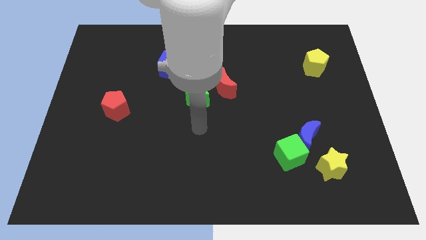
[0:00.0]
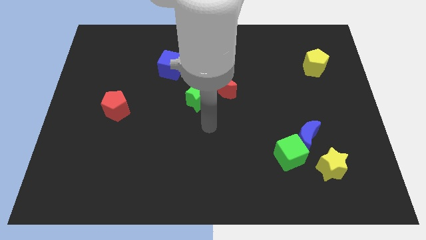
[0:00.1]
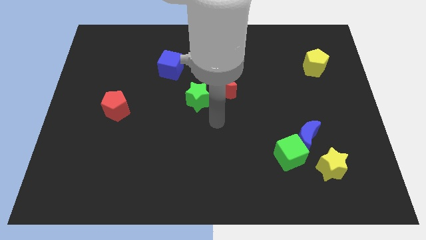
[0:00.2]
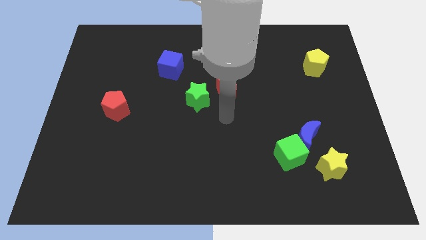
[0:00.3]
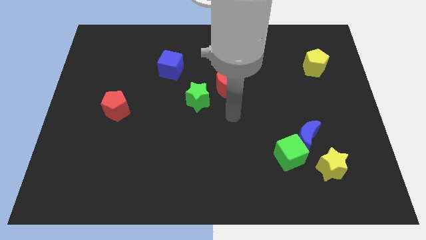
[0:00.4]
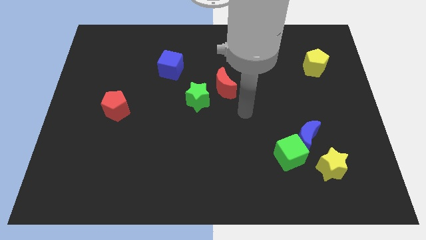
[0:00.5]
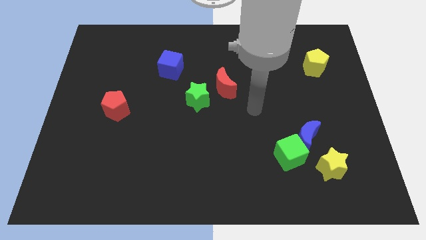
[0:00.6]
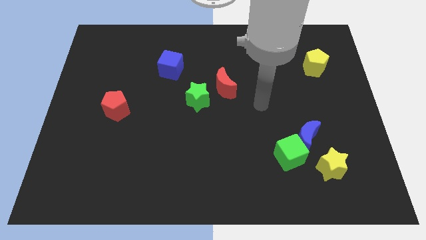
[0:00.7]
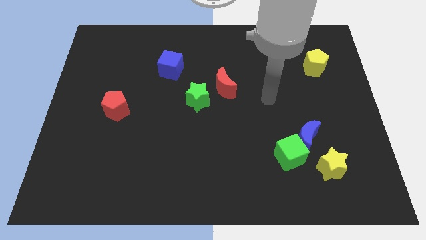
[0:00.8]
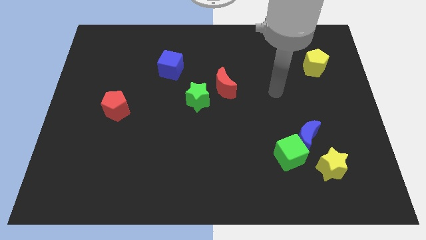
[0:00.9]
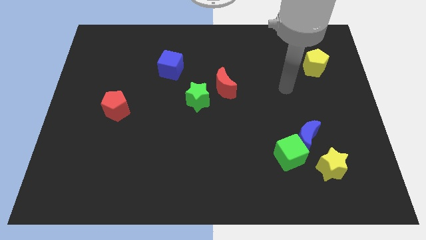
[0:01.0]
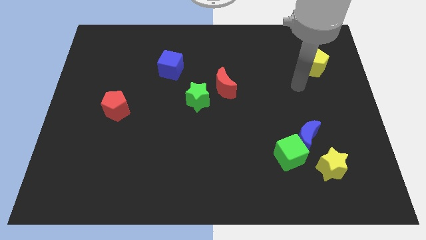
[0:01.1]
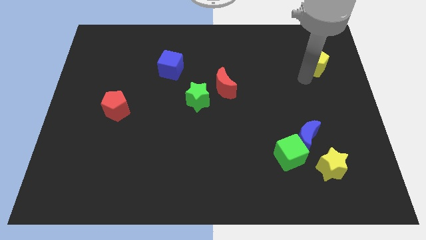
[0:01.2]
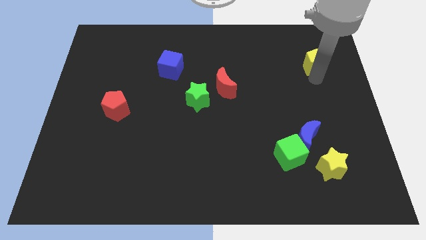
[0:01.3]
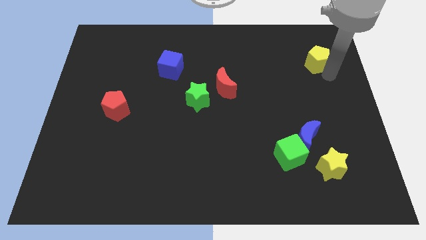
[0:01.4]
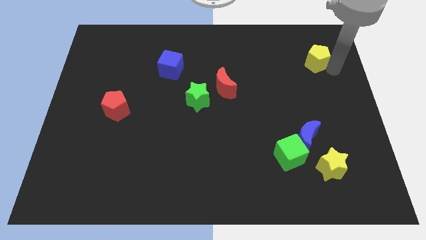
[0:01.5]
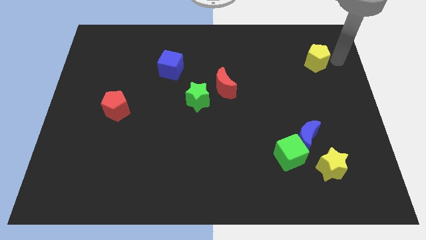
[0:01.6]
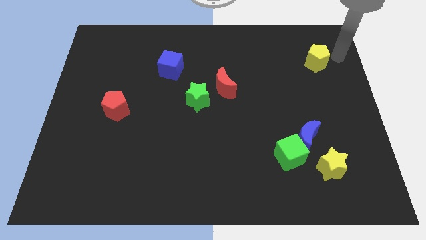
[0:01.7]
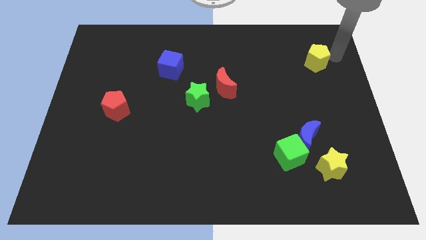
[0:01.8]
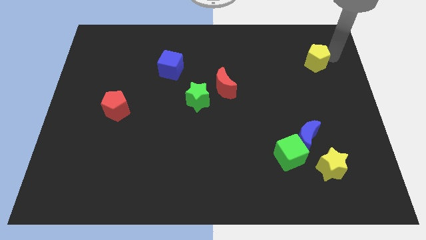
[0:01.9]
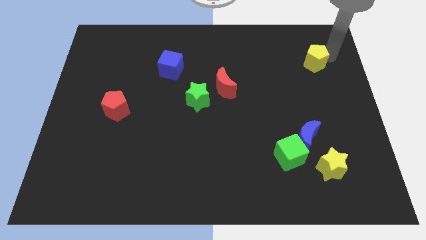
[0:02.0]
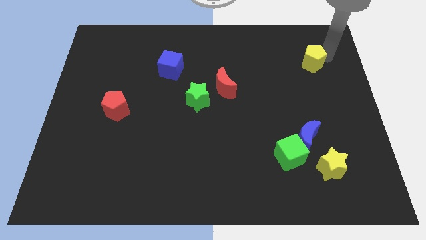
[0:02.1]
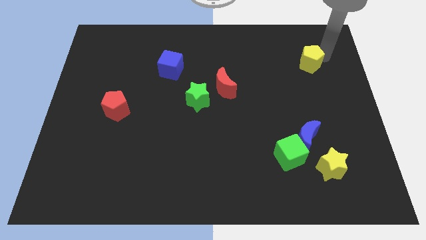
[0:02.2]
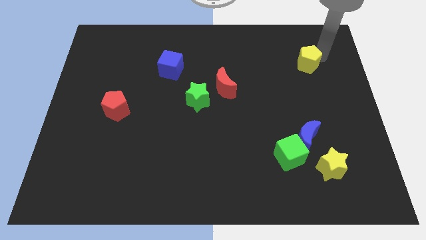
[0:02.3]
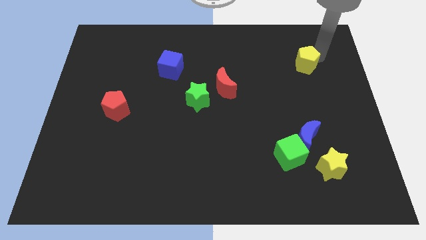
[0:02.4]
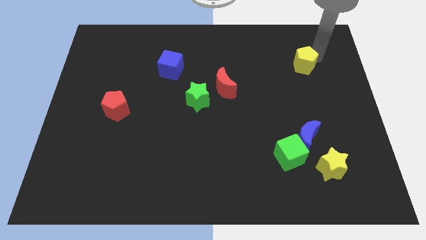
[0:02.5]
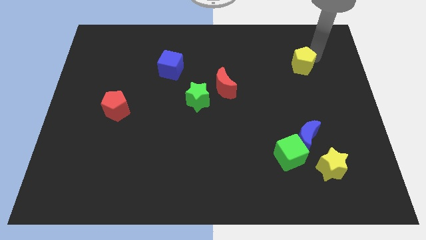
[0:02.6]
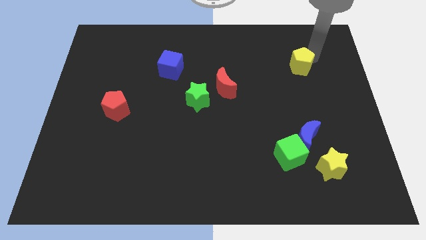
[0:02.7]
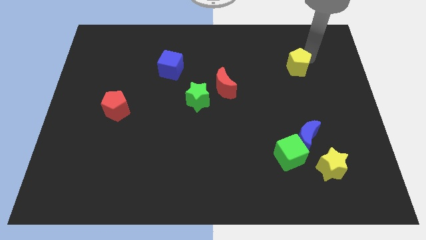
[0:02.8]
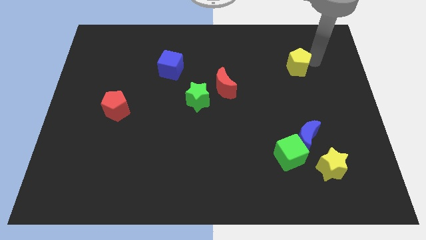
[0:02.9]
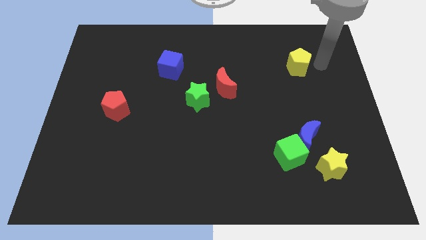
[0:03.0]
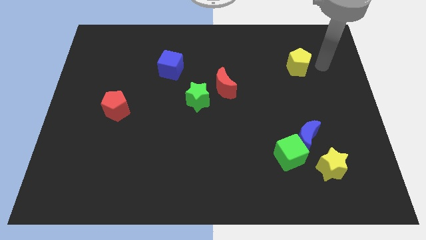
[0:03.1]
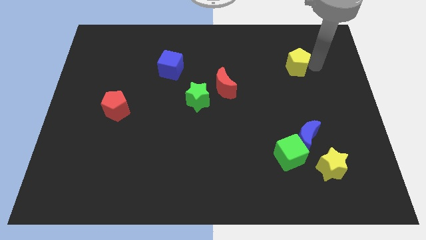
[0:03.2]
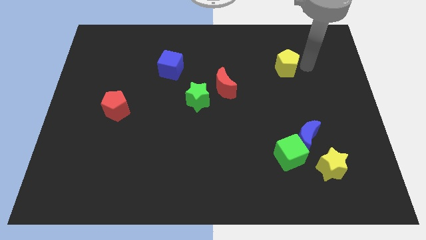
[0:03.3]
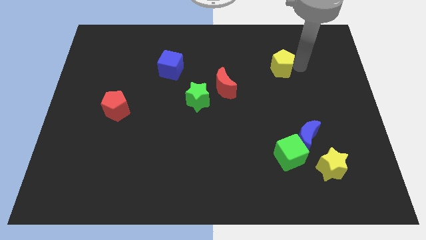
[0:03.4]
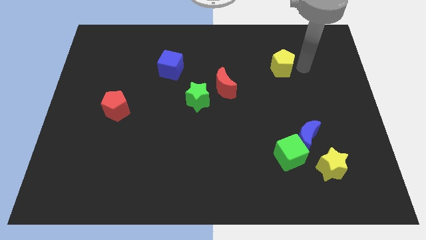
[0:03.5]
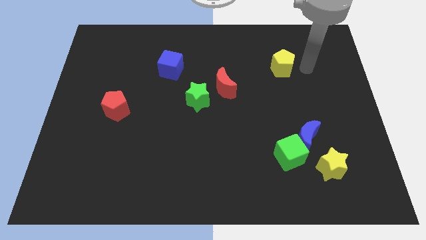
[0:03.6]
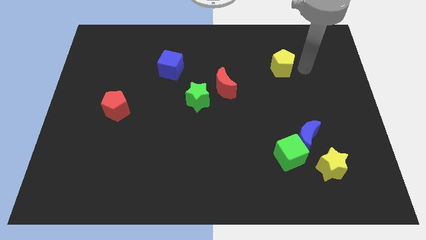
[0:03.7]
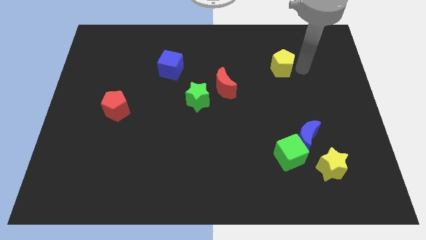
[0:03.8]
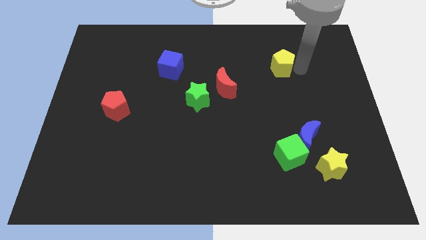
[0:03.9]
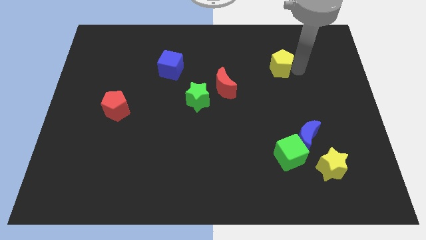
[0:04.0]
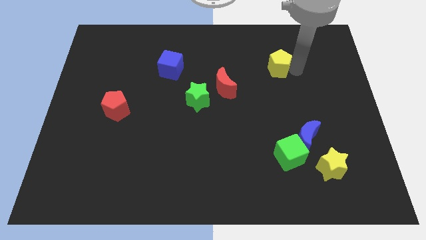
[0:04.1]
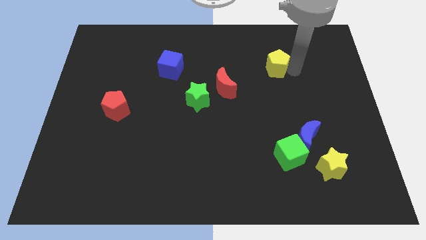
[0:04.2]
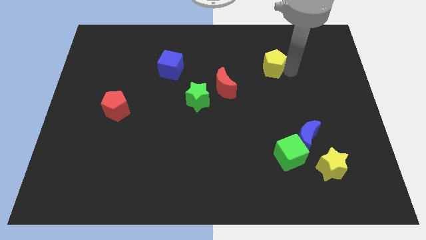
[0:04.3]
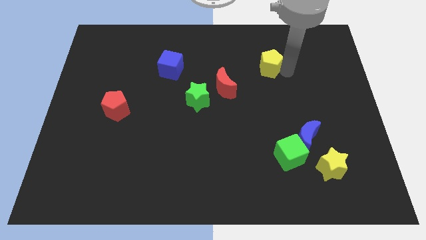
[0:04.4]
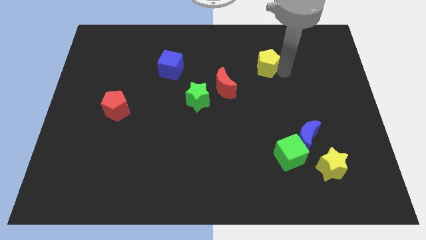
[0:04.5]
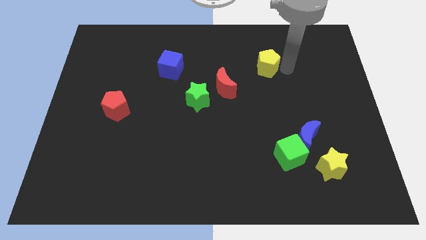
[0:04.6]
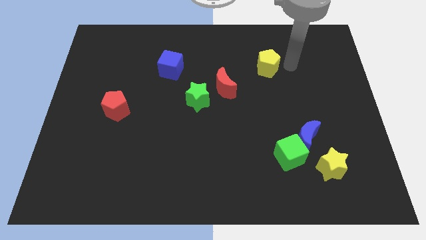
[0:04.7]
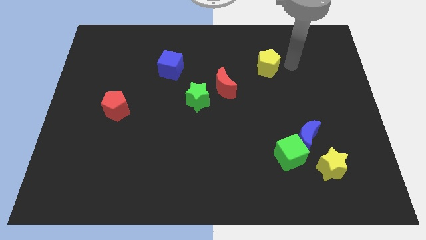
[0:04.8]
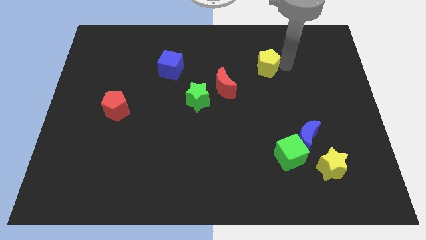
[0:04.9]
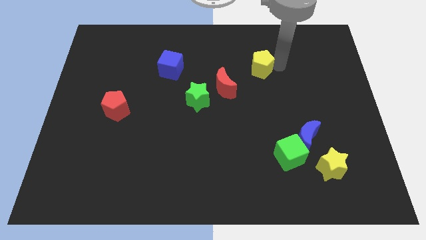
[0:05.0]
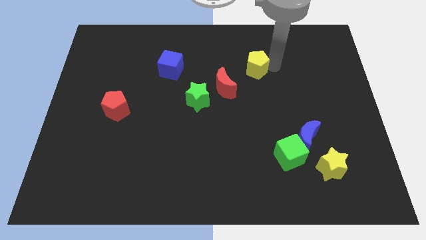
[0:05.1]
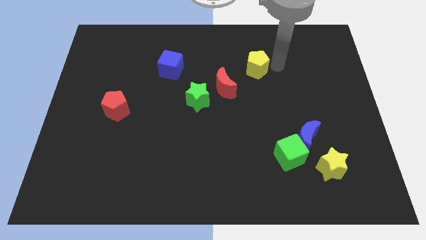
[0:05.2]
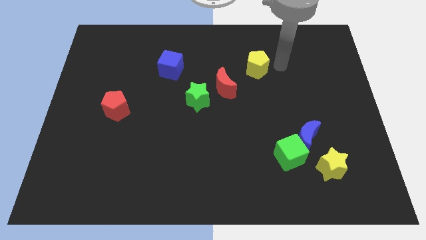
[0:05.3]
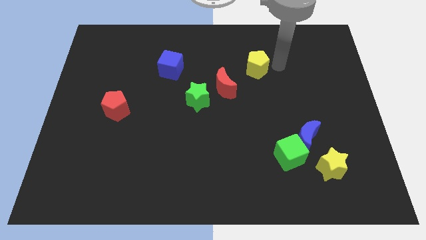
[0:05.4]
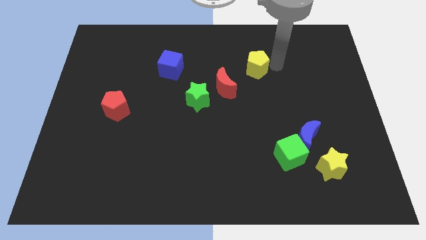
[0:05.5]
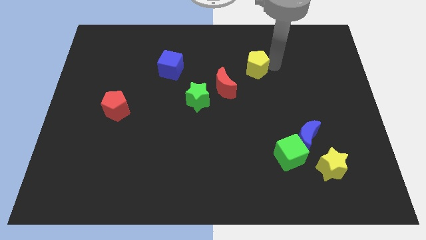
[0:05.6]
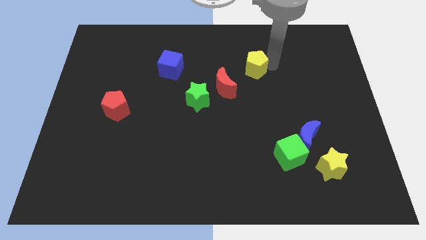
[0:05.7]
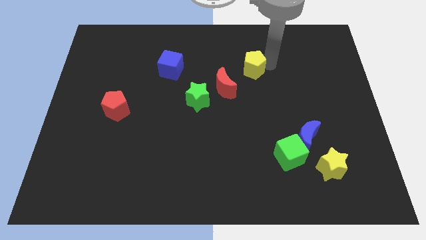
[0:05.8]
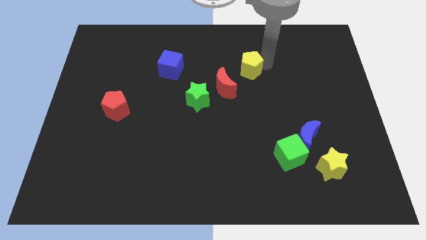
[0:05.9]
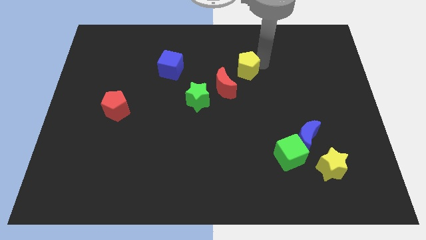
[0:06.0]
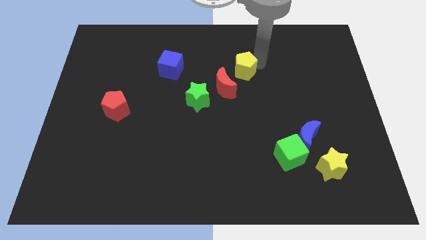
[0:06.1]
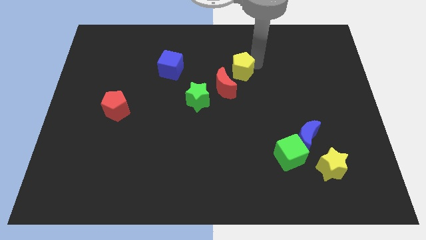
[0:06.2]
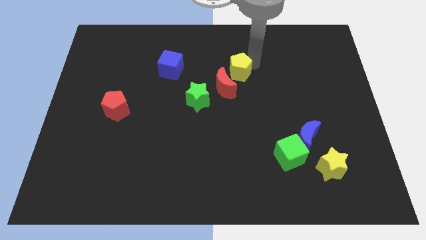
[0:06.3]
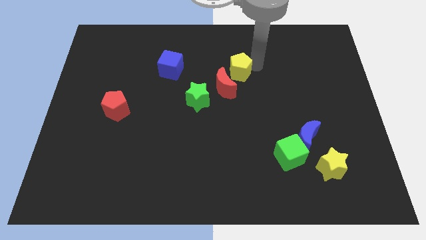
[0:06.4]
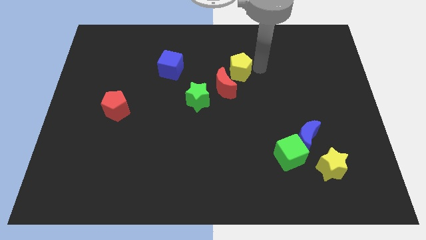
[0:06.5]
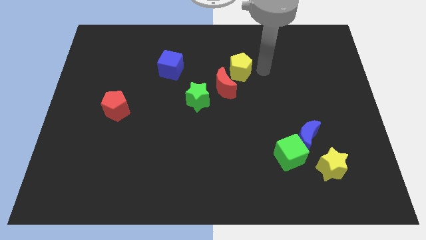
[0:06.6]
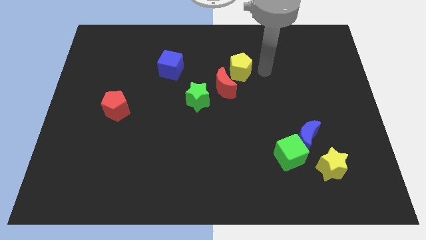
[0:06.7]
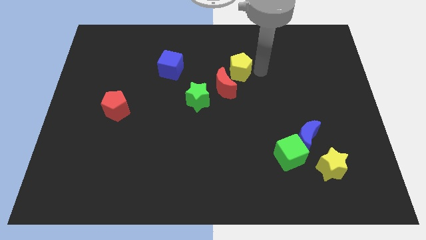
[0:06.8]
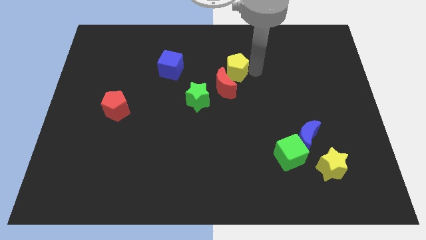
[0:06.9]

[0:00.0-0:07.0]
push the yellow pentagon to the left

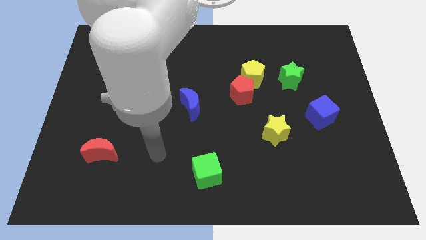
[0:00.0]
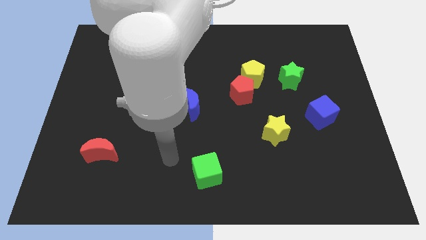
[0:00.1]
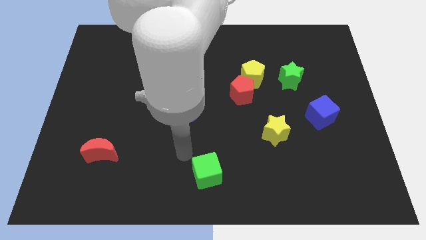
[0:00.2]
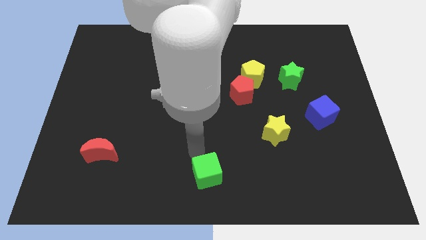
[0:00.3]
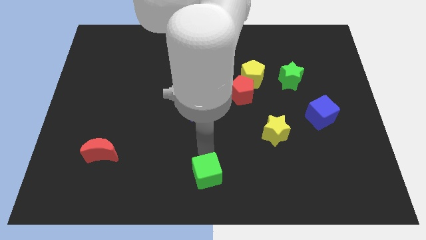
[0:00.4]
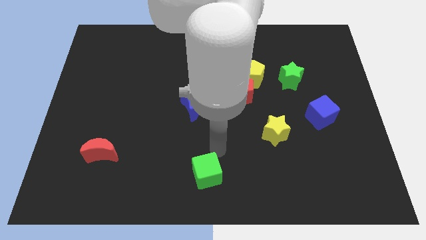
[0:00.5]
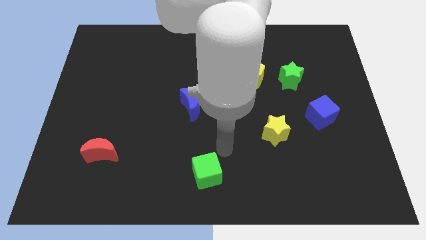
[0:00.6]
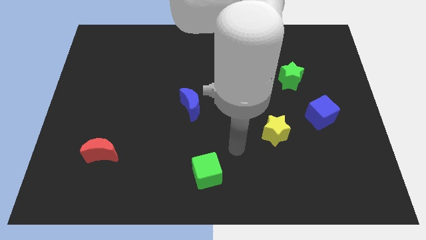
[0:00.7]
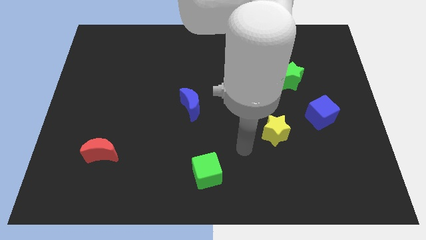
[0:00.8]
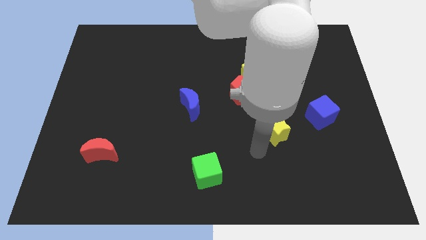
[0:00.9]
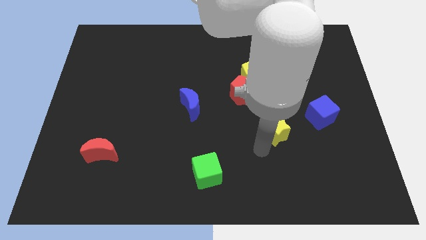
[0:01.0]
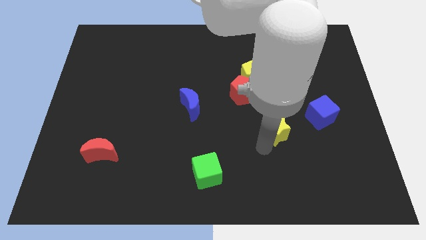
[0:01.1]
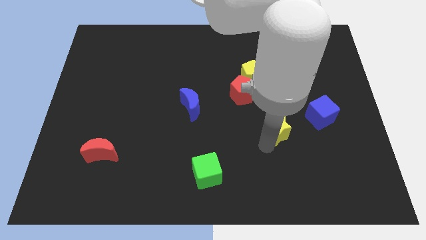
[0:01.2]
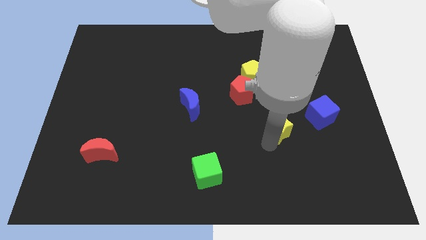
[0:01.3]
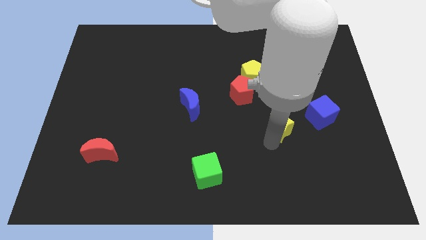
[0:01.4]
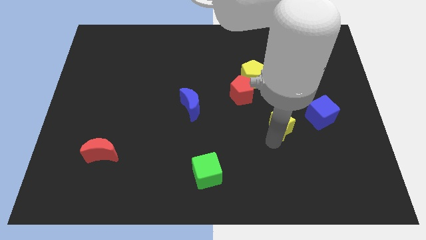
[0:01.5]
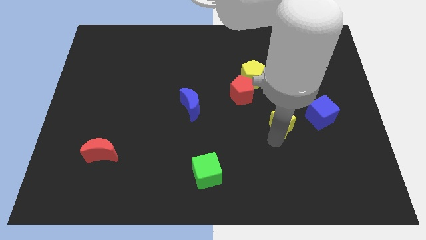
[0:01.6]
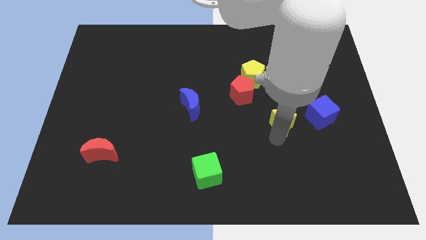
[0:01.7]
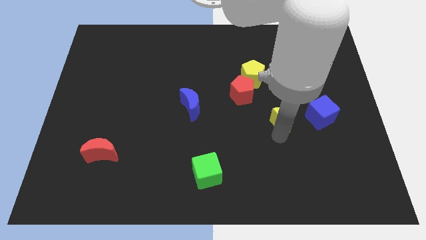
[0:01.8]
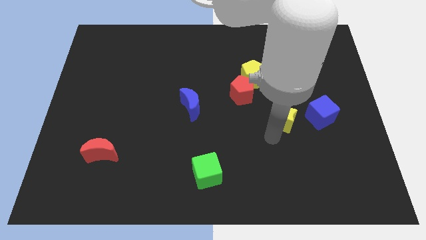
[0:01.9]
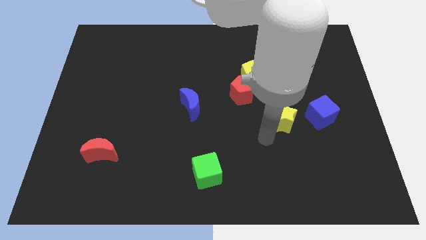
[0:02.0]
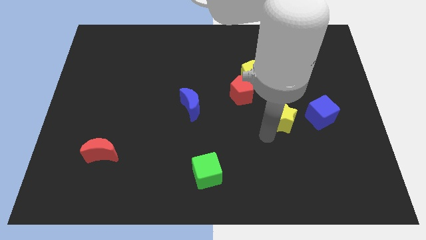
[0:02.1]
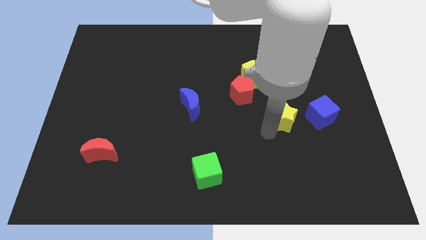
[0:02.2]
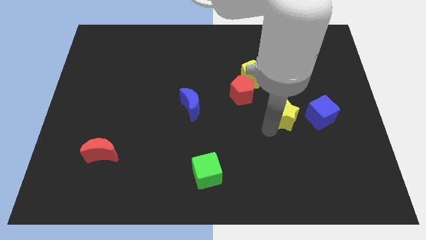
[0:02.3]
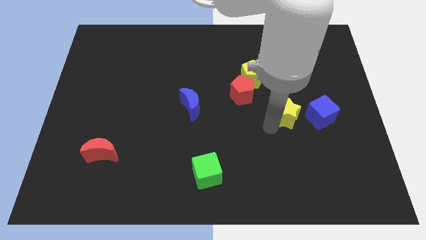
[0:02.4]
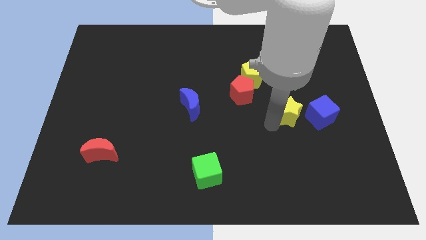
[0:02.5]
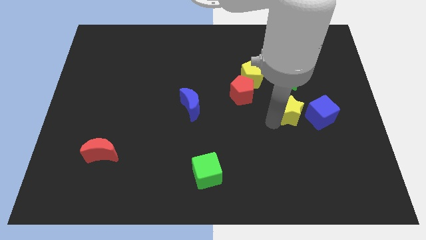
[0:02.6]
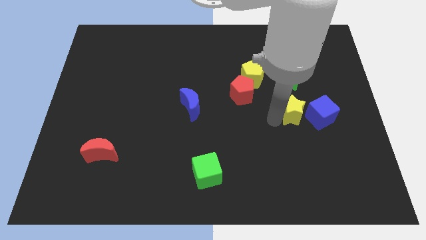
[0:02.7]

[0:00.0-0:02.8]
slide the yellow star a bit up and right
